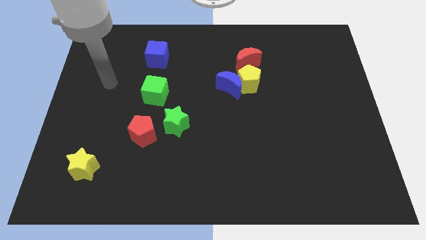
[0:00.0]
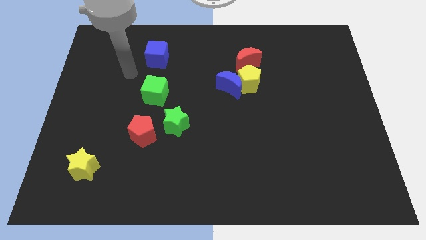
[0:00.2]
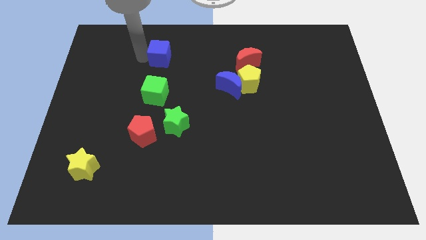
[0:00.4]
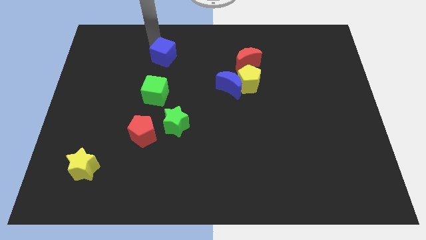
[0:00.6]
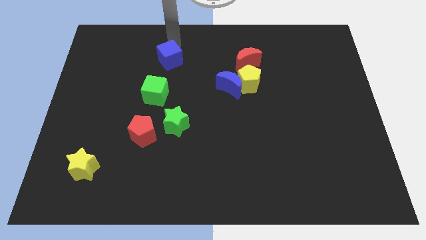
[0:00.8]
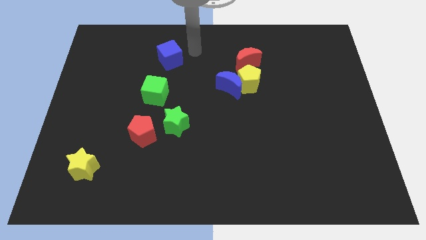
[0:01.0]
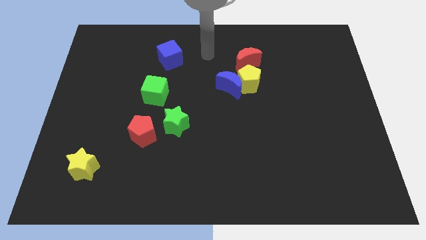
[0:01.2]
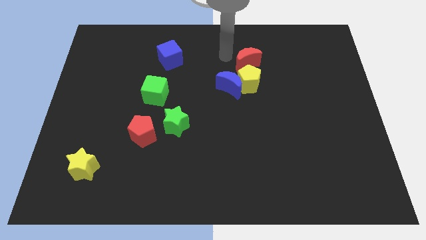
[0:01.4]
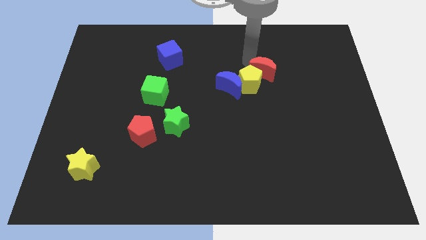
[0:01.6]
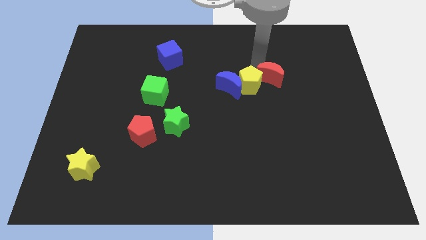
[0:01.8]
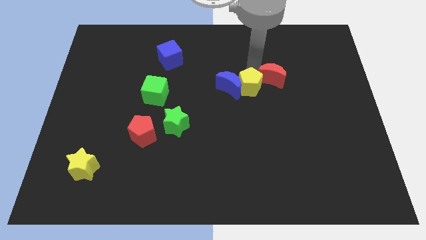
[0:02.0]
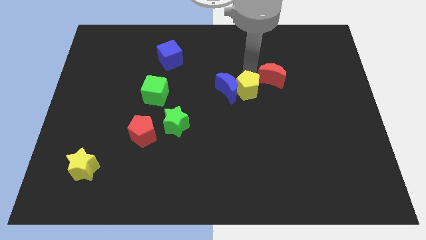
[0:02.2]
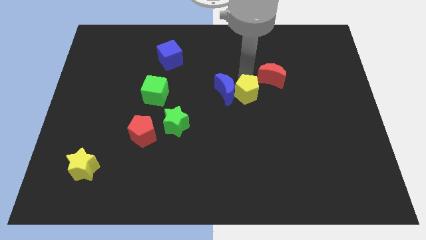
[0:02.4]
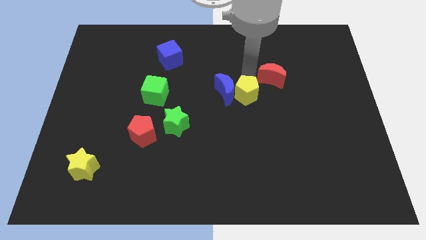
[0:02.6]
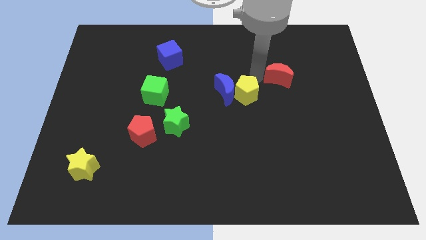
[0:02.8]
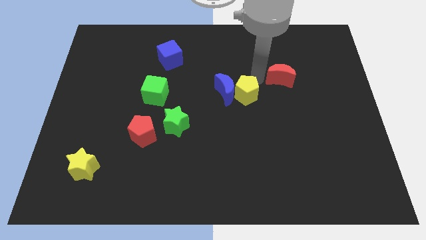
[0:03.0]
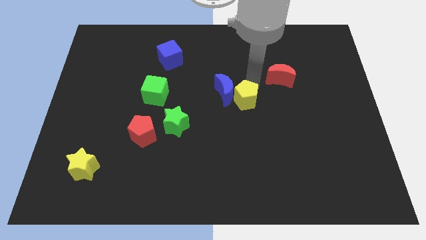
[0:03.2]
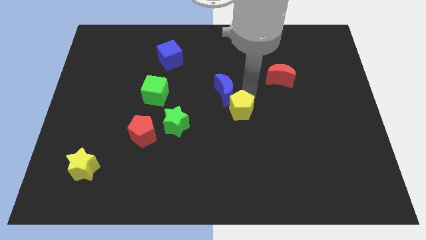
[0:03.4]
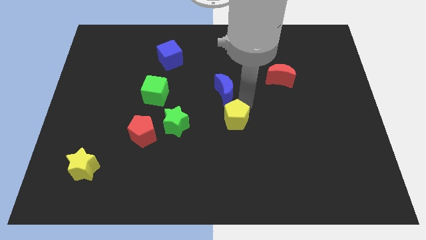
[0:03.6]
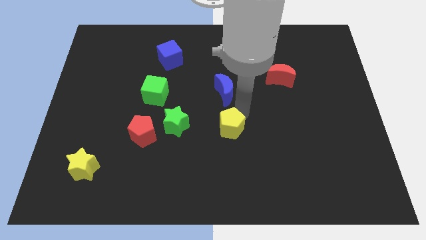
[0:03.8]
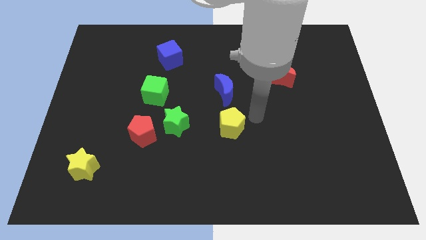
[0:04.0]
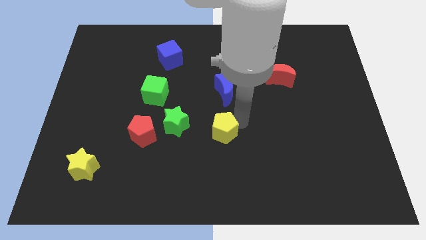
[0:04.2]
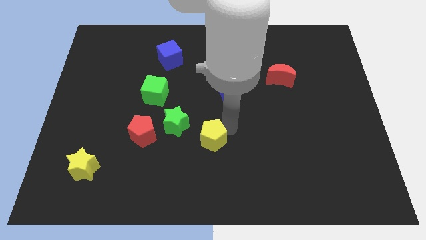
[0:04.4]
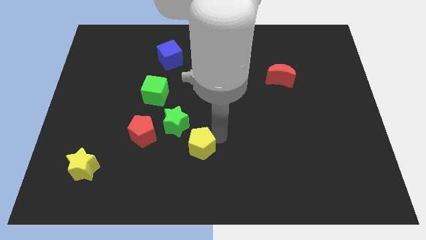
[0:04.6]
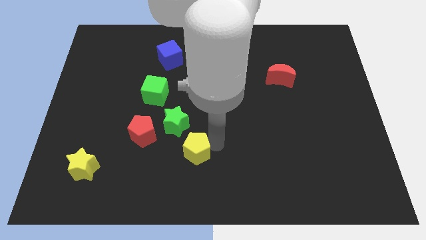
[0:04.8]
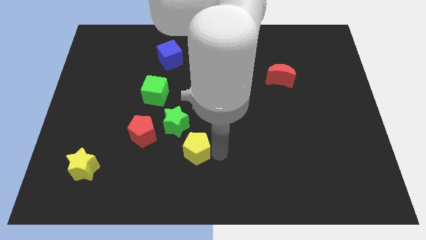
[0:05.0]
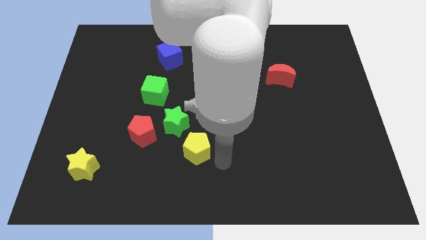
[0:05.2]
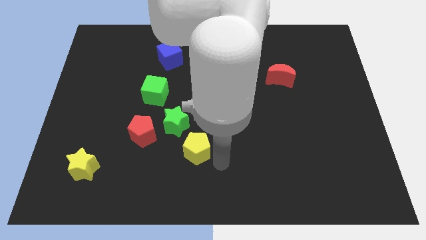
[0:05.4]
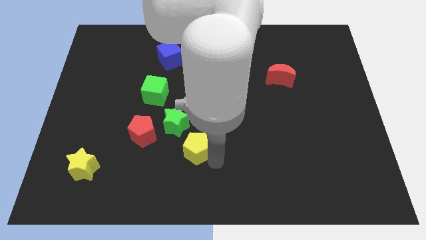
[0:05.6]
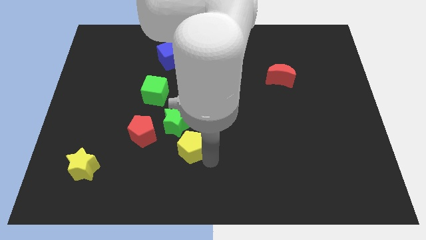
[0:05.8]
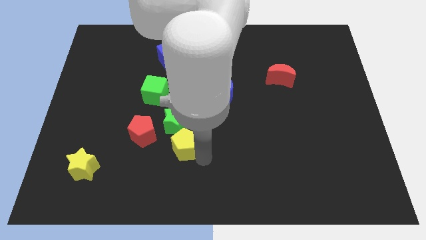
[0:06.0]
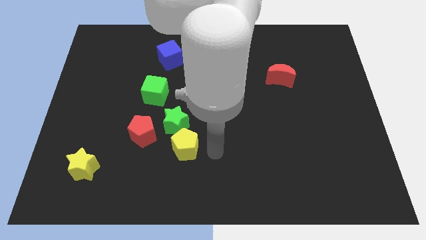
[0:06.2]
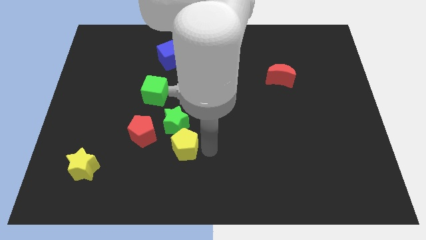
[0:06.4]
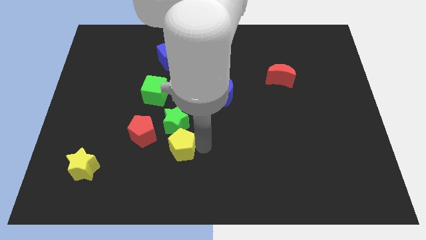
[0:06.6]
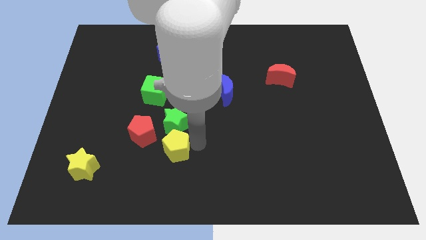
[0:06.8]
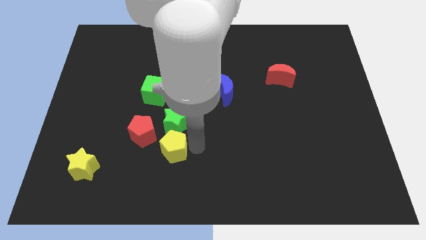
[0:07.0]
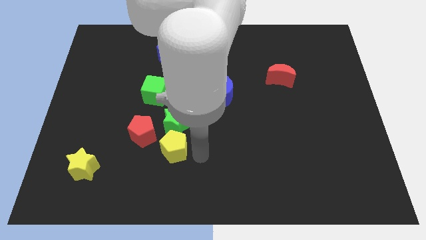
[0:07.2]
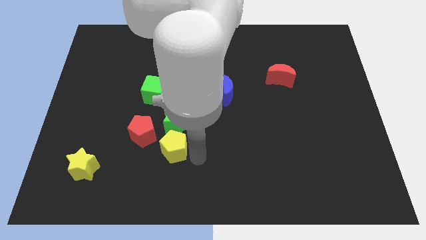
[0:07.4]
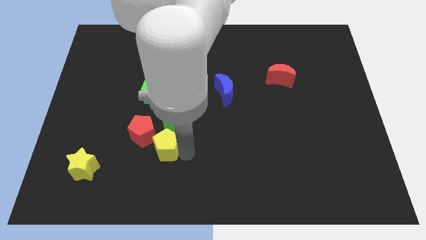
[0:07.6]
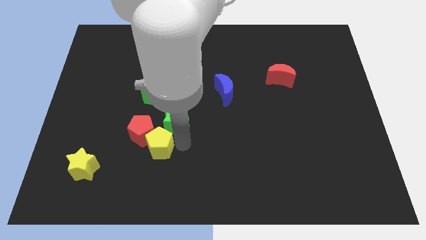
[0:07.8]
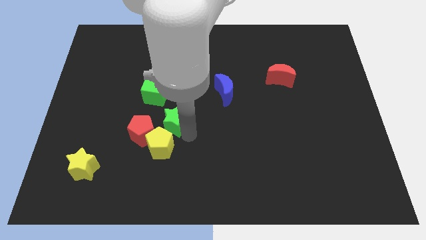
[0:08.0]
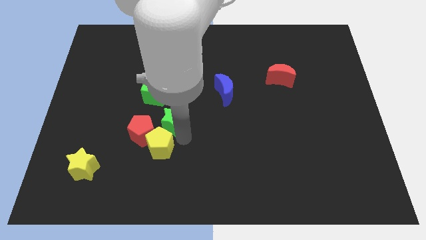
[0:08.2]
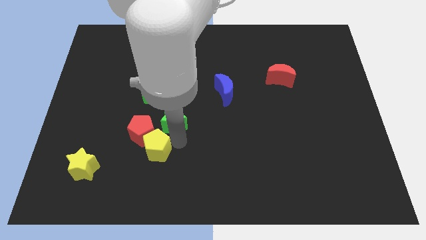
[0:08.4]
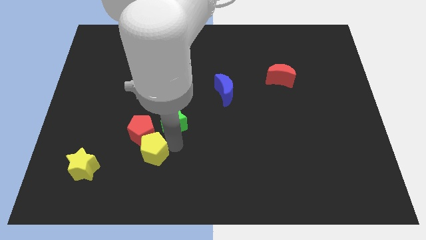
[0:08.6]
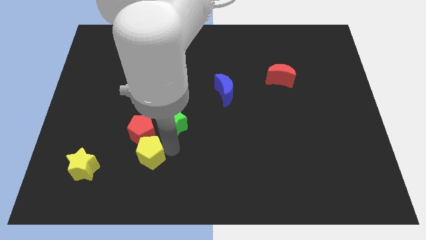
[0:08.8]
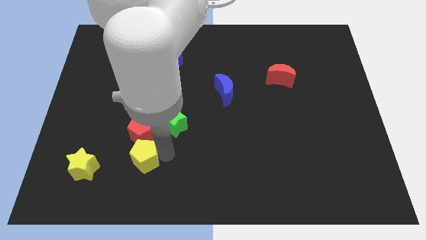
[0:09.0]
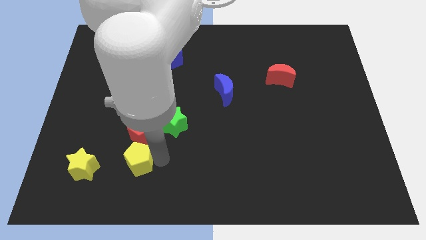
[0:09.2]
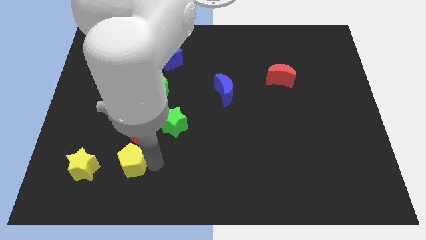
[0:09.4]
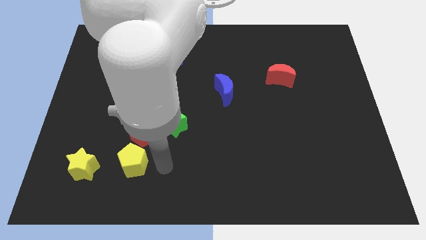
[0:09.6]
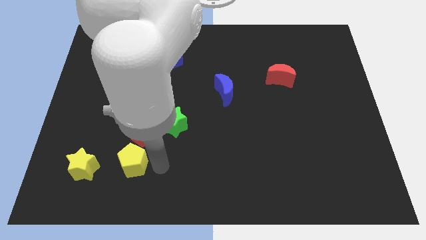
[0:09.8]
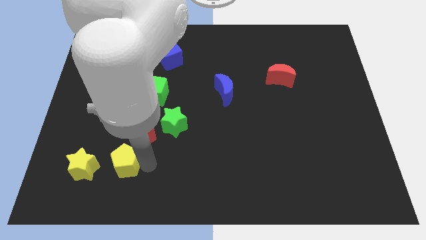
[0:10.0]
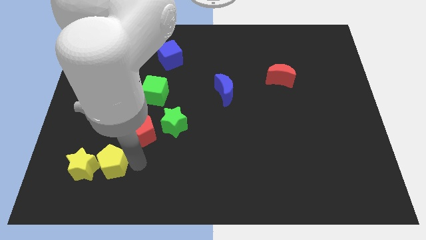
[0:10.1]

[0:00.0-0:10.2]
move the yellow pentagon next to the yellow star

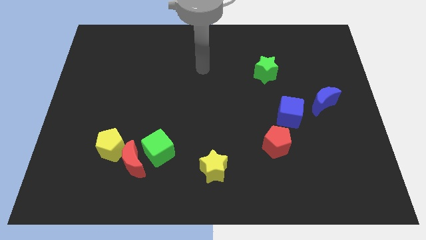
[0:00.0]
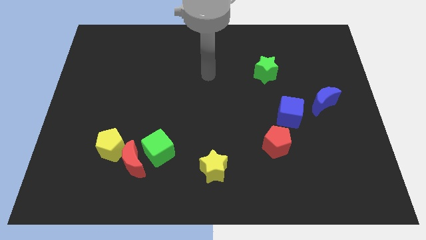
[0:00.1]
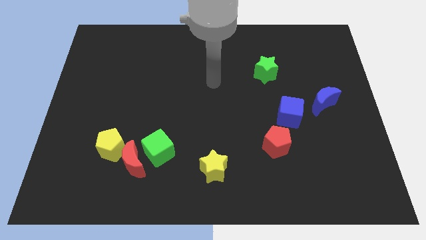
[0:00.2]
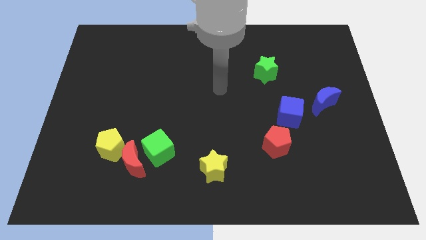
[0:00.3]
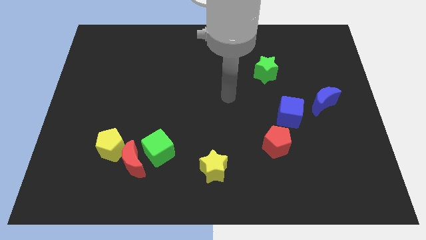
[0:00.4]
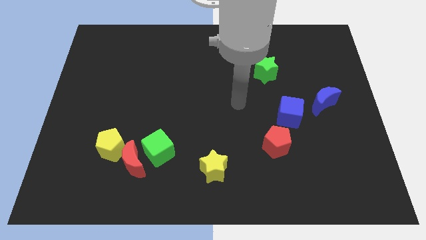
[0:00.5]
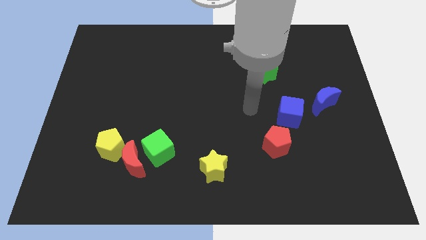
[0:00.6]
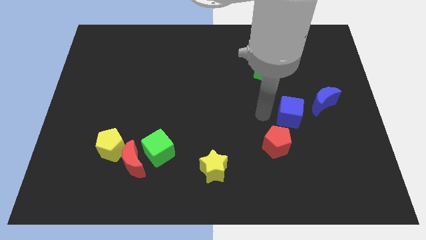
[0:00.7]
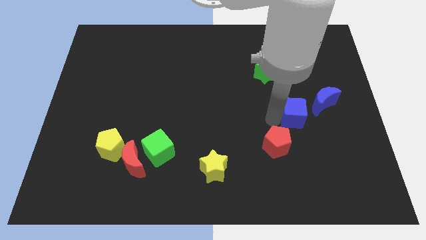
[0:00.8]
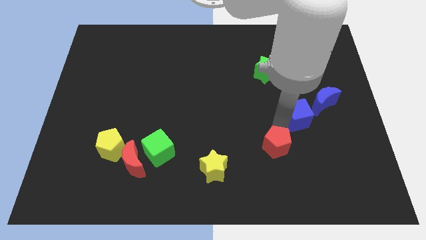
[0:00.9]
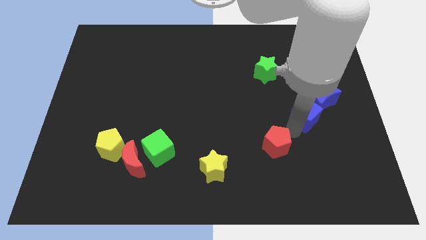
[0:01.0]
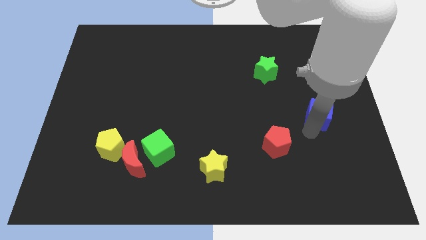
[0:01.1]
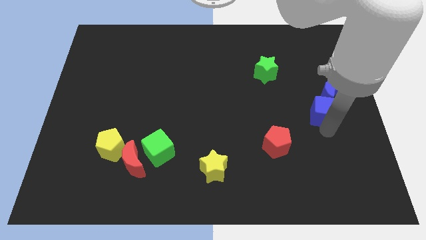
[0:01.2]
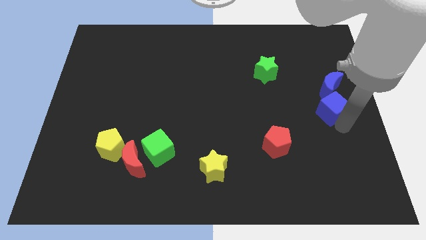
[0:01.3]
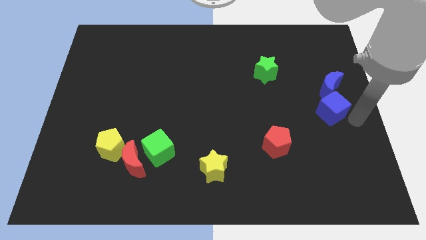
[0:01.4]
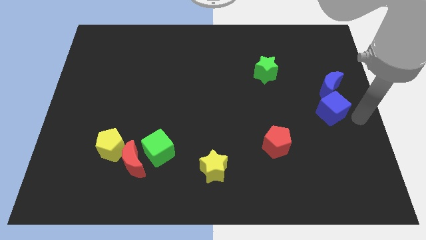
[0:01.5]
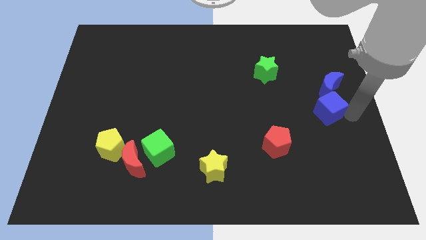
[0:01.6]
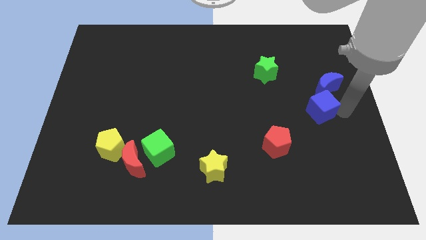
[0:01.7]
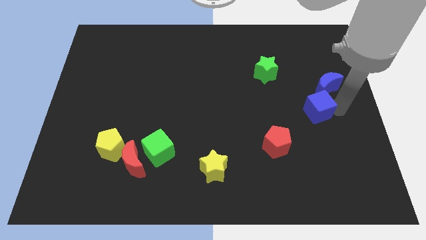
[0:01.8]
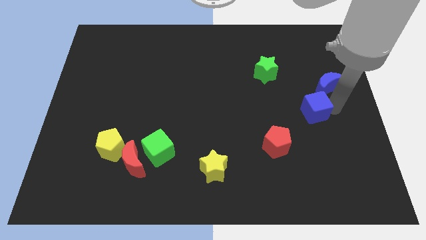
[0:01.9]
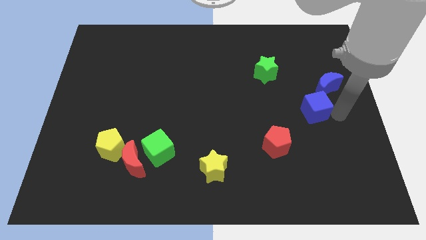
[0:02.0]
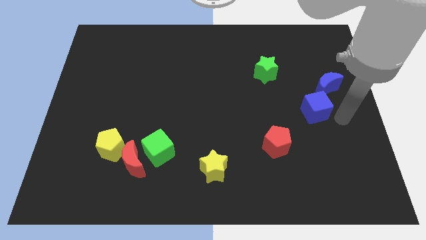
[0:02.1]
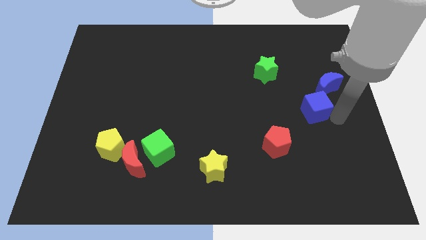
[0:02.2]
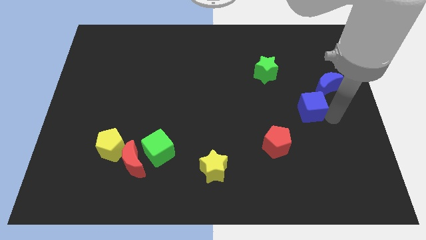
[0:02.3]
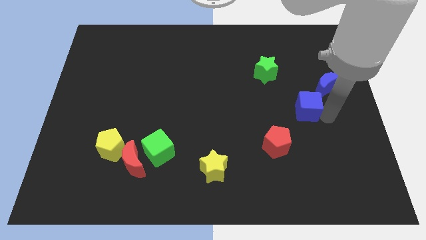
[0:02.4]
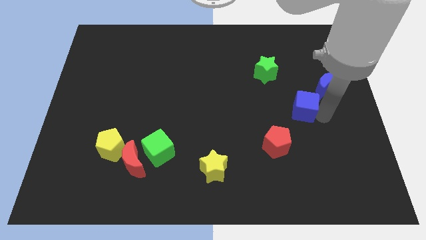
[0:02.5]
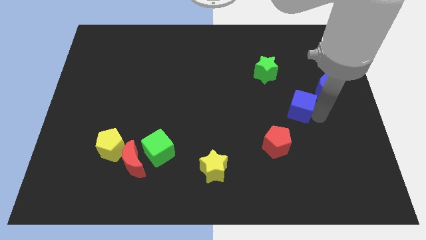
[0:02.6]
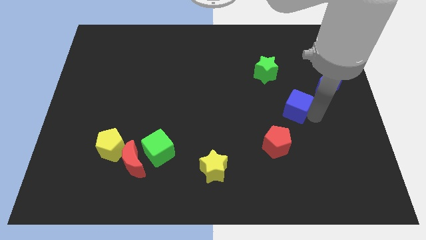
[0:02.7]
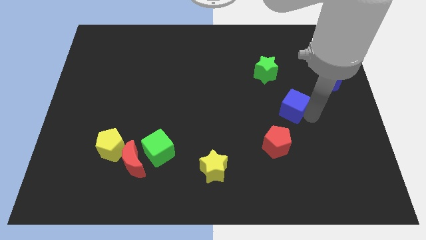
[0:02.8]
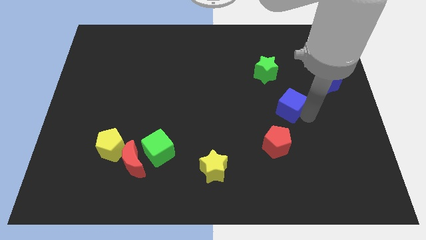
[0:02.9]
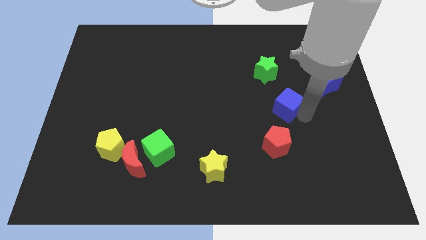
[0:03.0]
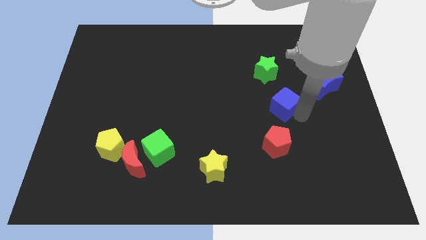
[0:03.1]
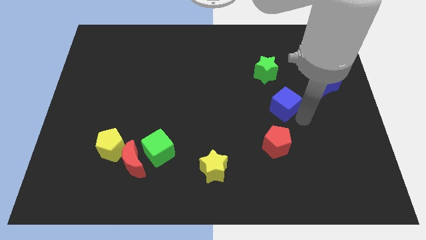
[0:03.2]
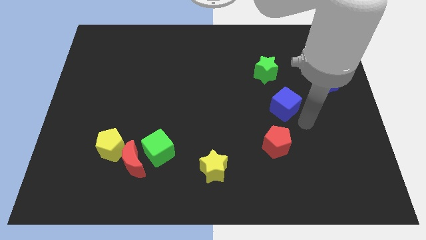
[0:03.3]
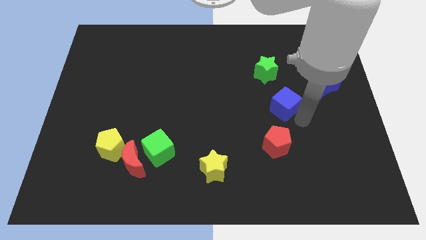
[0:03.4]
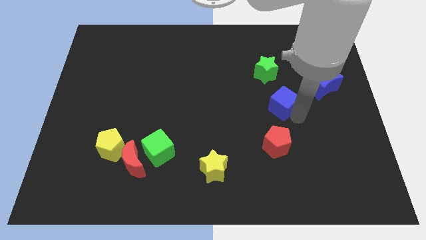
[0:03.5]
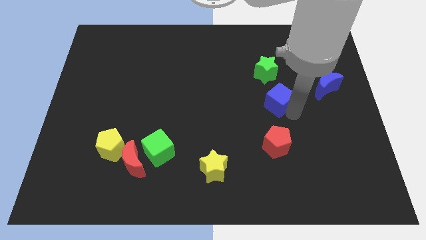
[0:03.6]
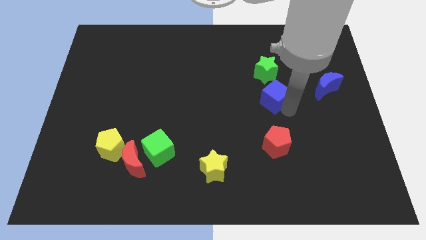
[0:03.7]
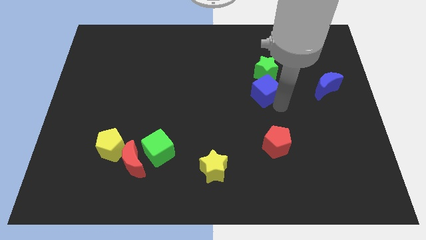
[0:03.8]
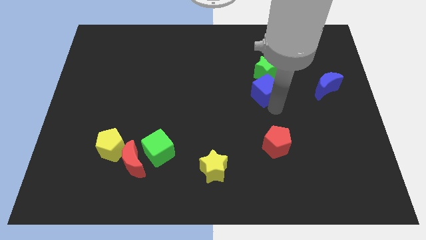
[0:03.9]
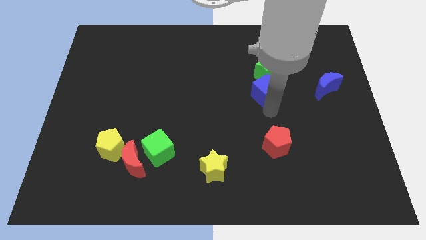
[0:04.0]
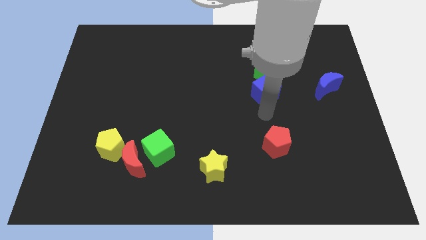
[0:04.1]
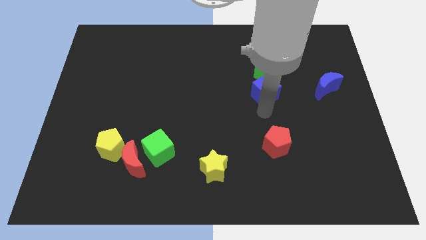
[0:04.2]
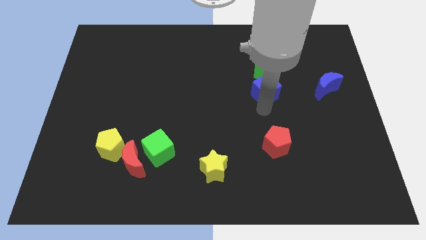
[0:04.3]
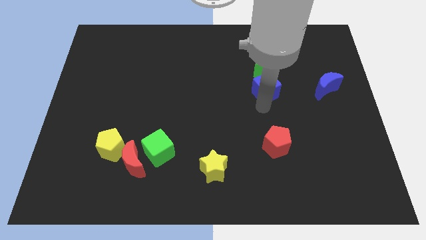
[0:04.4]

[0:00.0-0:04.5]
put the blue cube towards the green star
